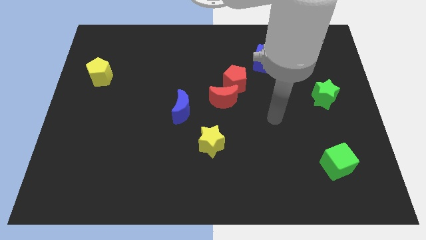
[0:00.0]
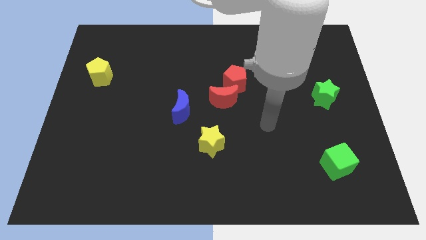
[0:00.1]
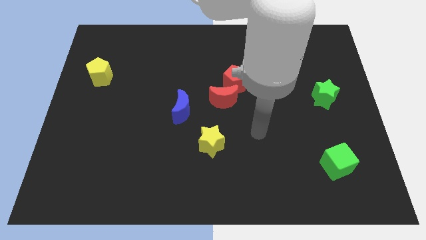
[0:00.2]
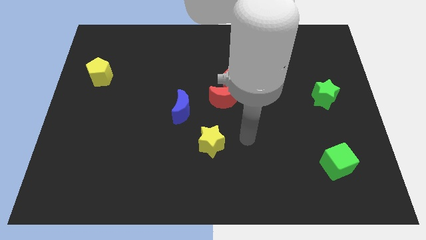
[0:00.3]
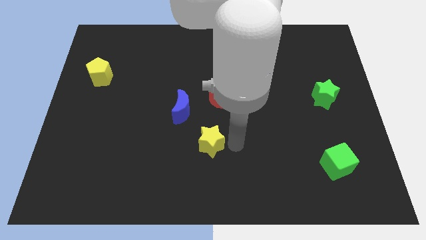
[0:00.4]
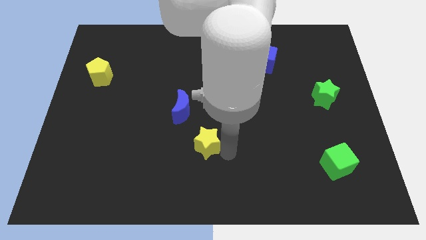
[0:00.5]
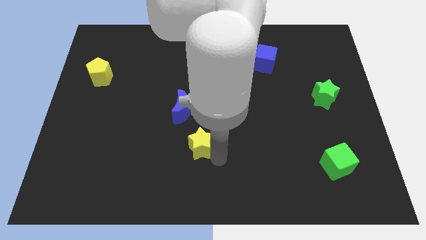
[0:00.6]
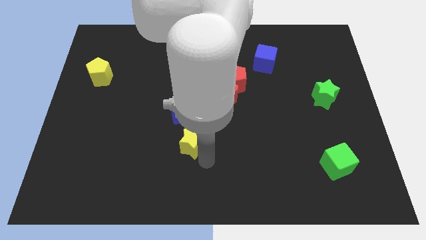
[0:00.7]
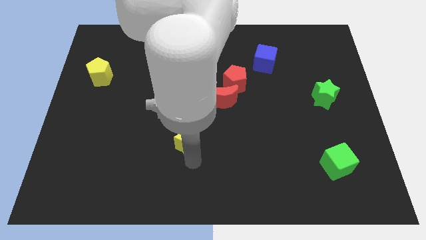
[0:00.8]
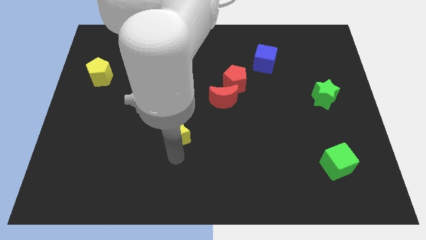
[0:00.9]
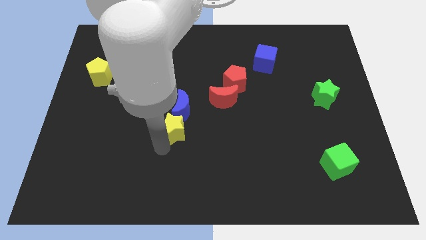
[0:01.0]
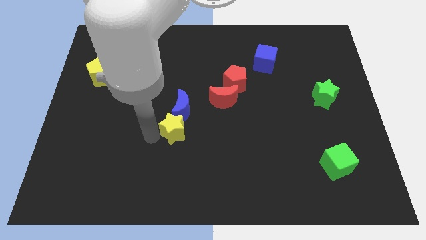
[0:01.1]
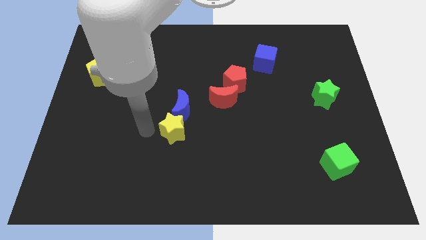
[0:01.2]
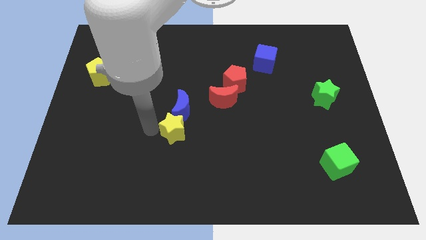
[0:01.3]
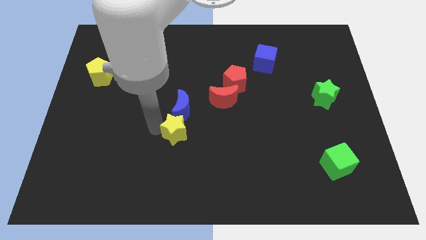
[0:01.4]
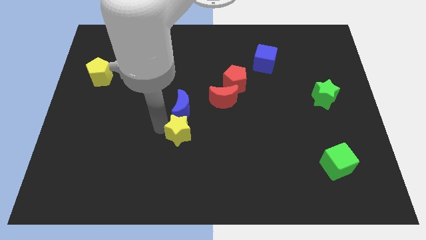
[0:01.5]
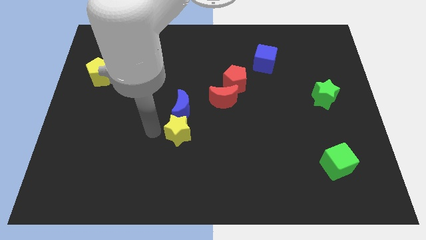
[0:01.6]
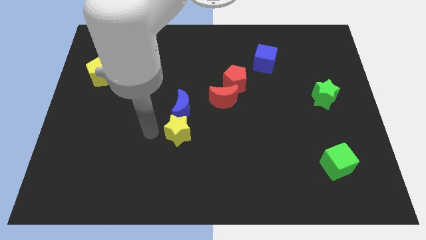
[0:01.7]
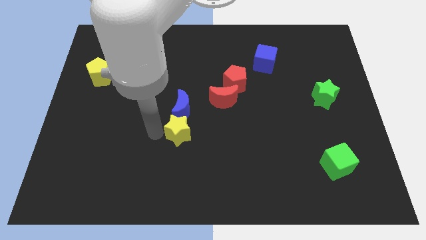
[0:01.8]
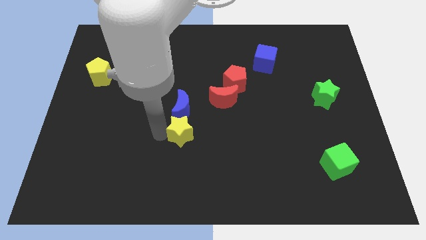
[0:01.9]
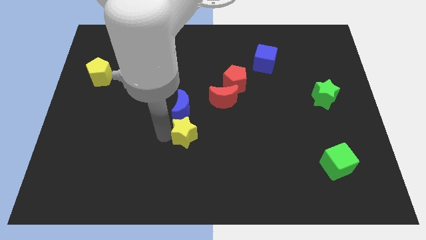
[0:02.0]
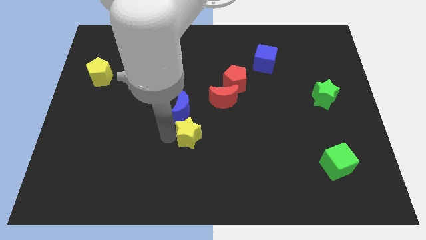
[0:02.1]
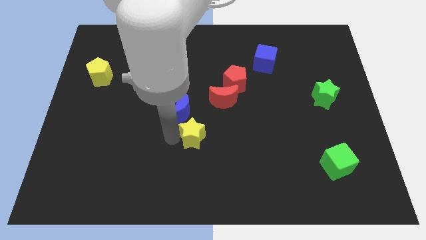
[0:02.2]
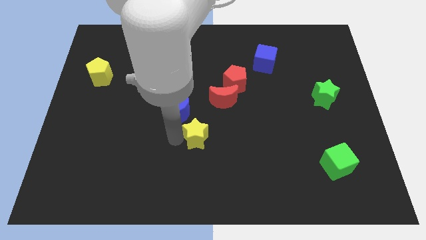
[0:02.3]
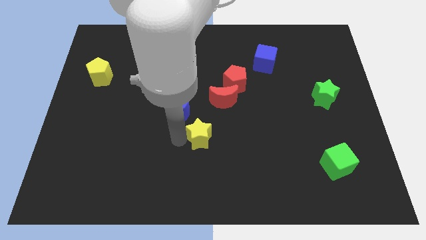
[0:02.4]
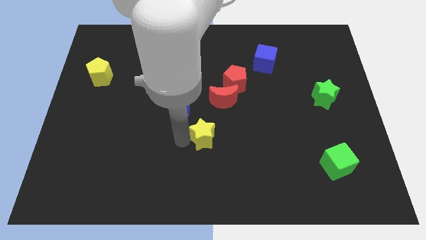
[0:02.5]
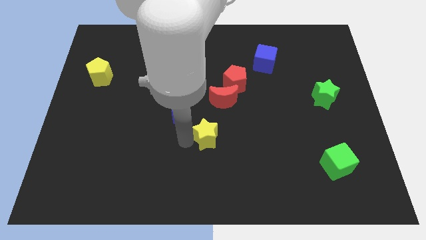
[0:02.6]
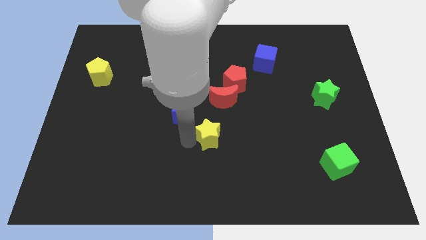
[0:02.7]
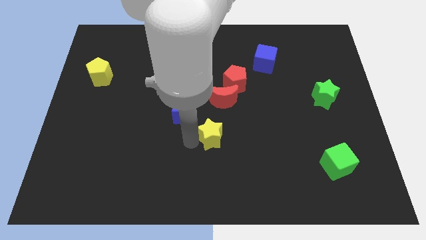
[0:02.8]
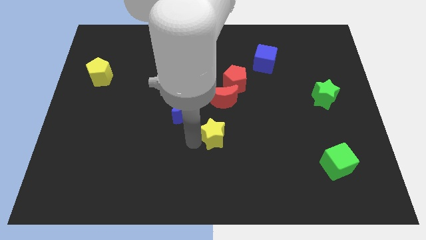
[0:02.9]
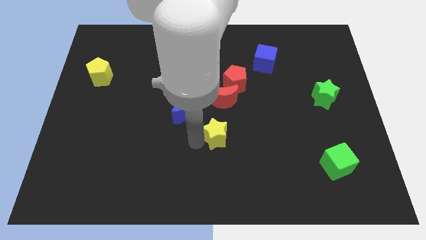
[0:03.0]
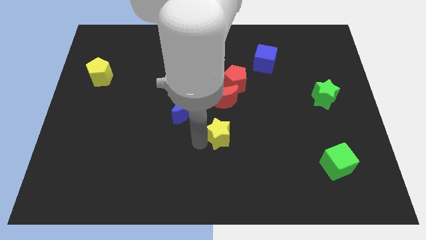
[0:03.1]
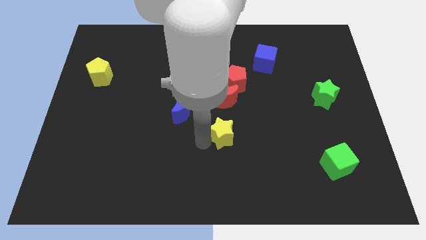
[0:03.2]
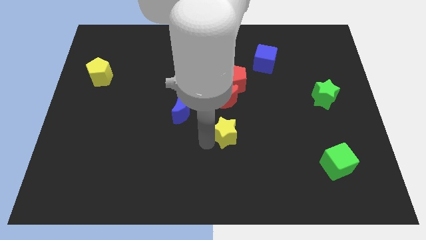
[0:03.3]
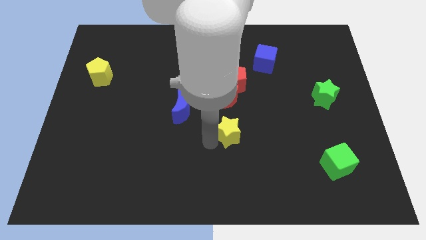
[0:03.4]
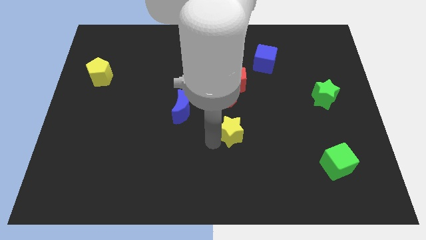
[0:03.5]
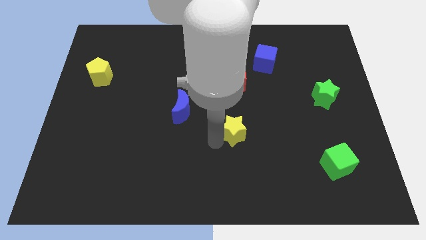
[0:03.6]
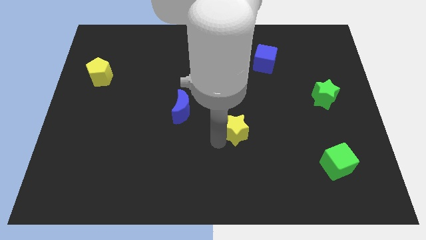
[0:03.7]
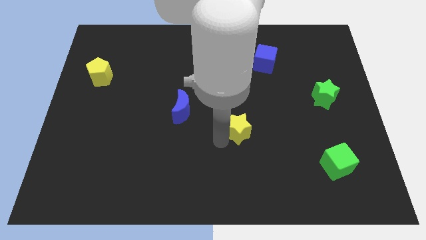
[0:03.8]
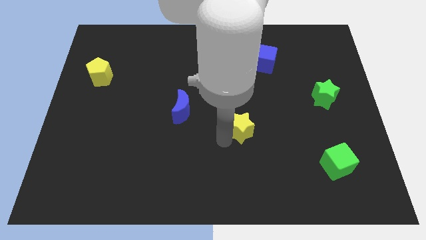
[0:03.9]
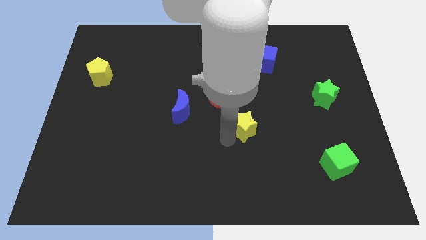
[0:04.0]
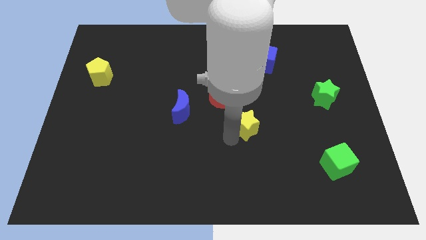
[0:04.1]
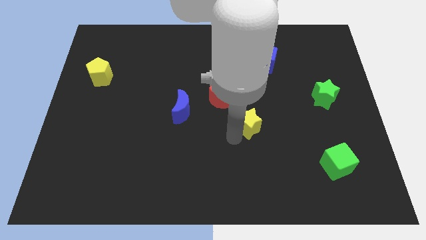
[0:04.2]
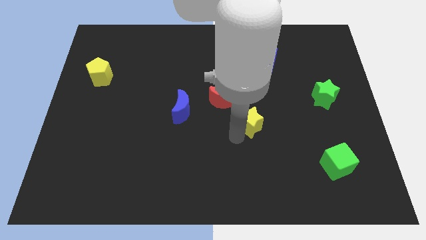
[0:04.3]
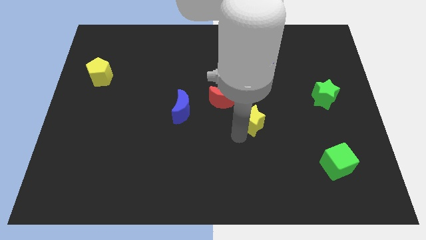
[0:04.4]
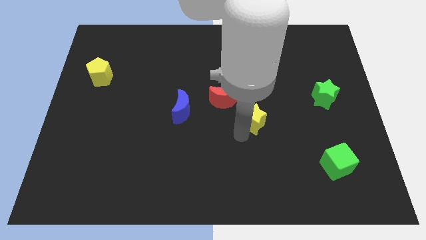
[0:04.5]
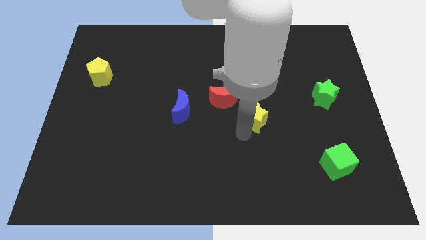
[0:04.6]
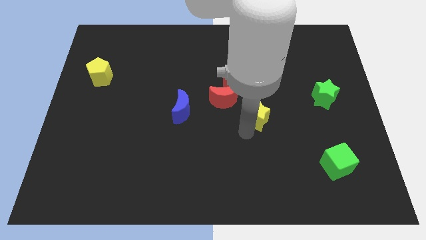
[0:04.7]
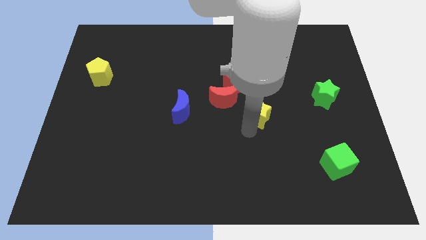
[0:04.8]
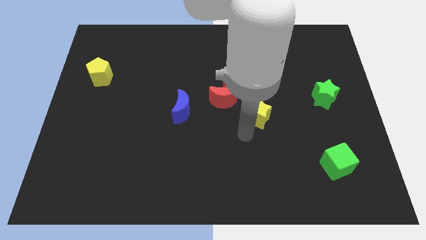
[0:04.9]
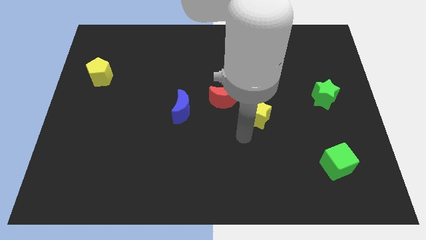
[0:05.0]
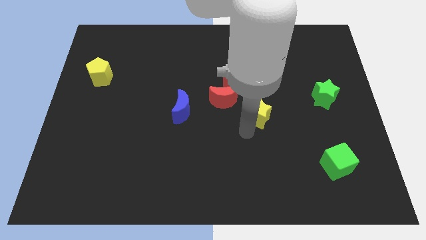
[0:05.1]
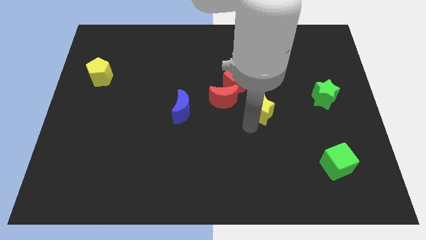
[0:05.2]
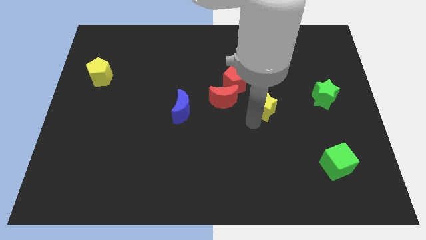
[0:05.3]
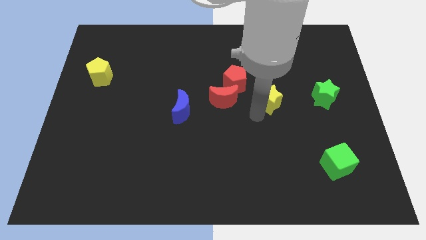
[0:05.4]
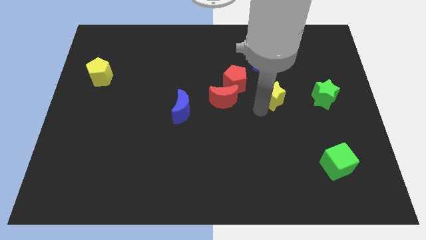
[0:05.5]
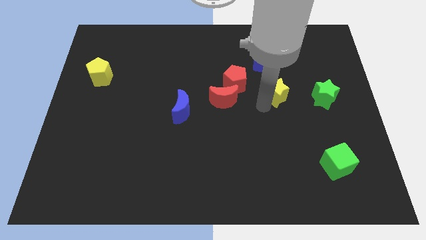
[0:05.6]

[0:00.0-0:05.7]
move the yellow star upwards and then to the right

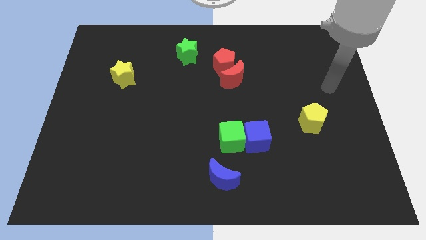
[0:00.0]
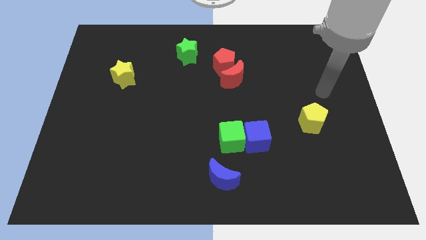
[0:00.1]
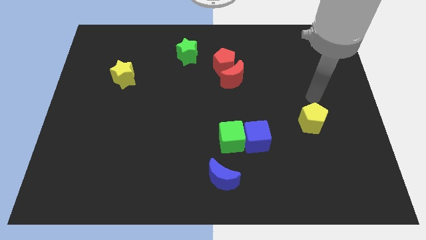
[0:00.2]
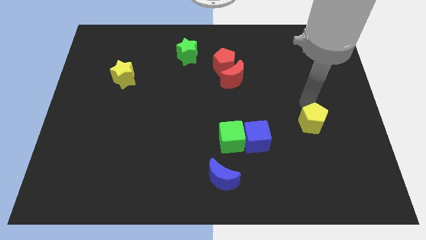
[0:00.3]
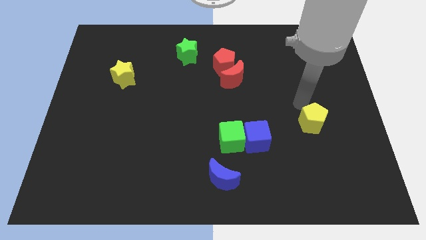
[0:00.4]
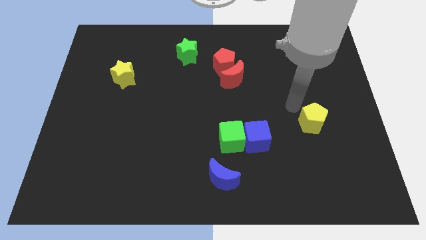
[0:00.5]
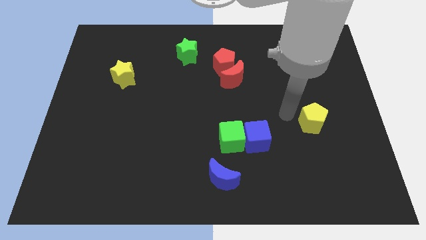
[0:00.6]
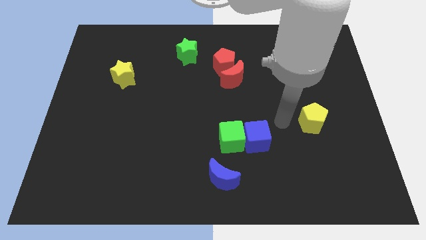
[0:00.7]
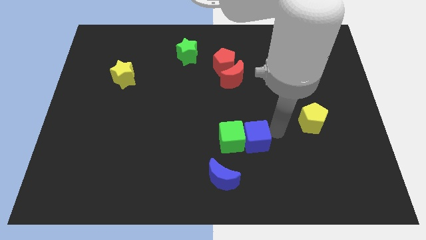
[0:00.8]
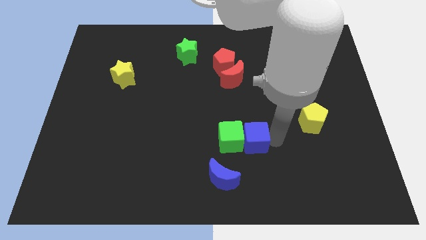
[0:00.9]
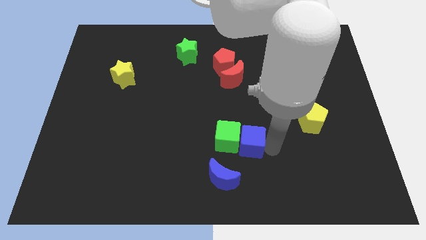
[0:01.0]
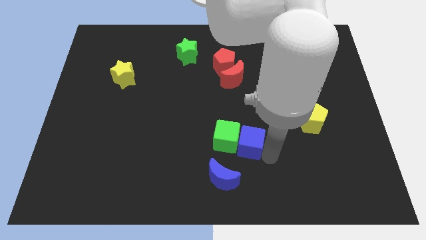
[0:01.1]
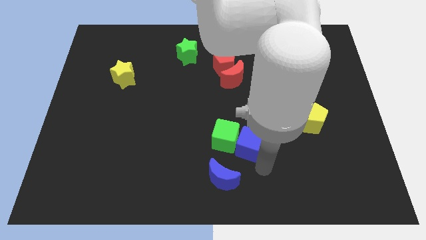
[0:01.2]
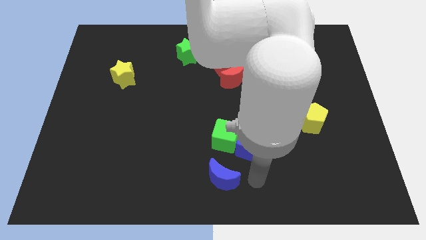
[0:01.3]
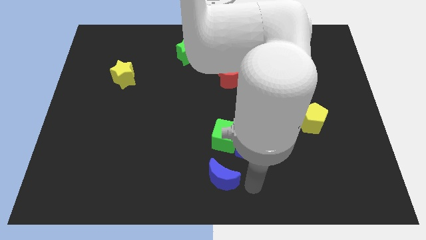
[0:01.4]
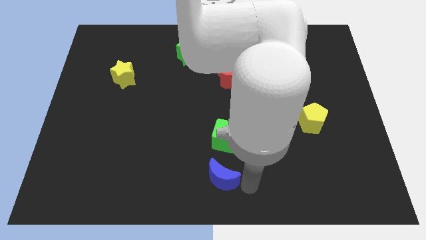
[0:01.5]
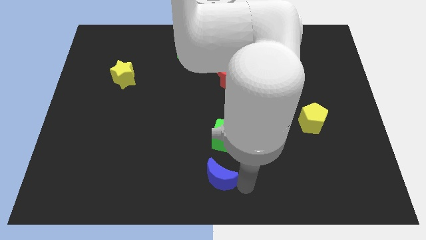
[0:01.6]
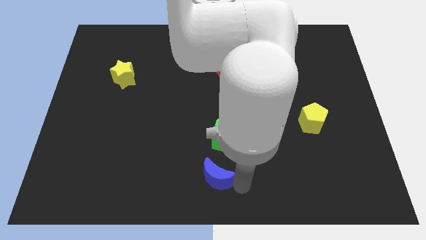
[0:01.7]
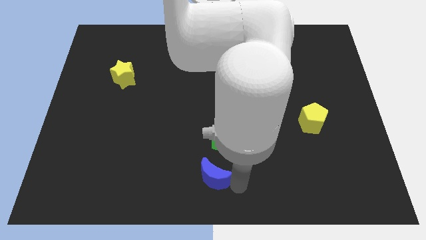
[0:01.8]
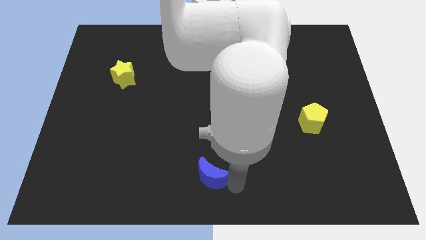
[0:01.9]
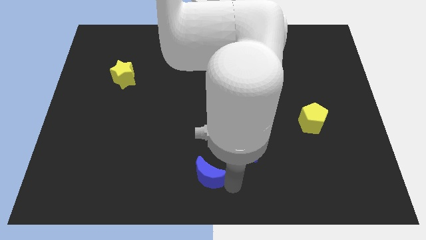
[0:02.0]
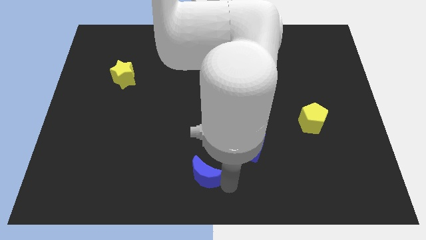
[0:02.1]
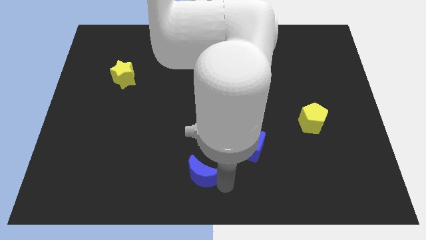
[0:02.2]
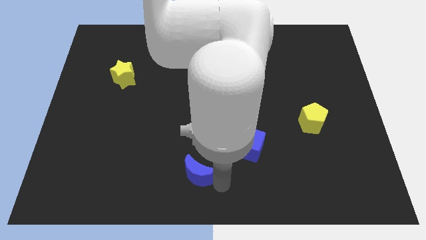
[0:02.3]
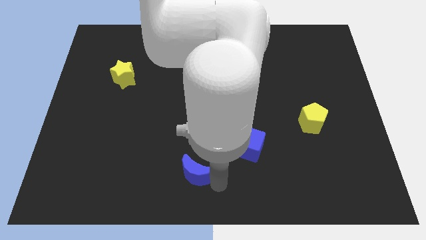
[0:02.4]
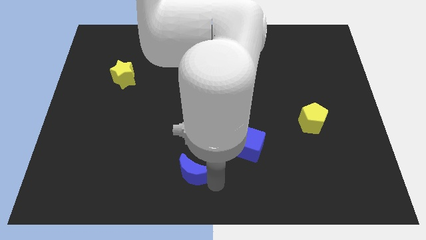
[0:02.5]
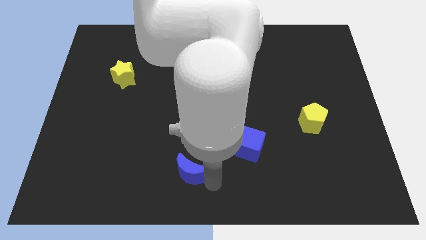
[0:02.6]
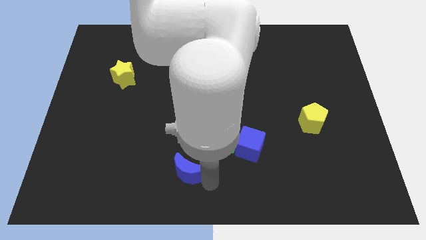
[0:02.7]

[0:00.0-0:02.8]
push the blue moon slightly to the left
